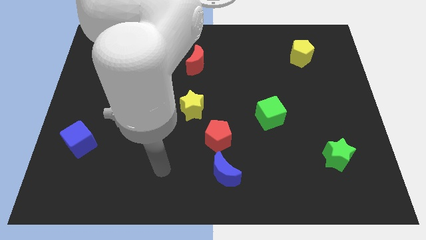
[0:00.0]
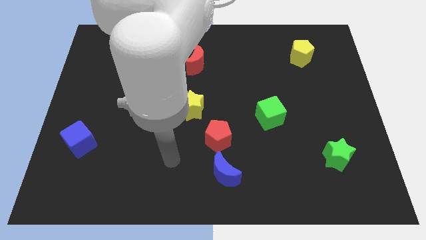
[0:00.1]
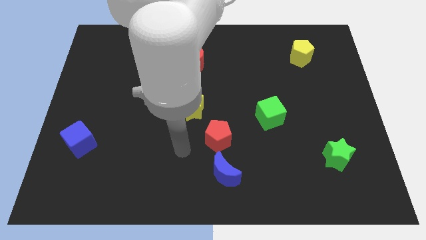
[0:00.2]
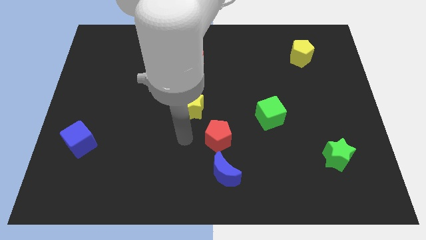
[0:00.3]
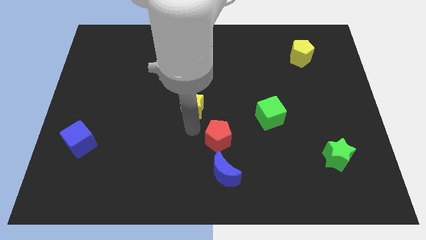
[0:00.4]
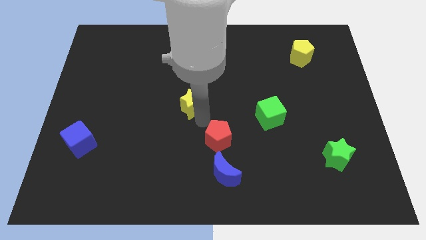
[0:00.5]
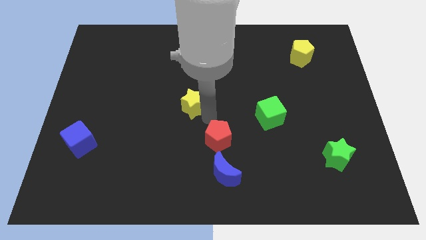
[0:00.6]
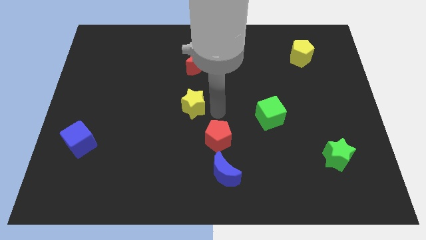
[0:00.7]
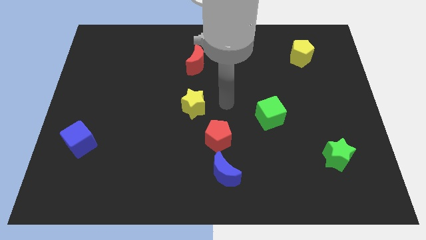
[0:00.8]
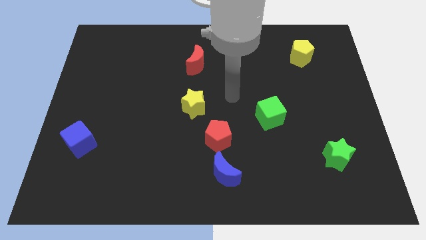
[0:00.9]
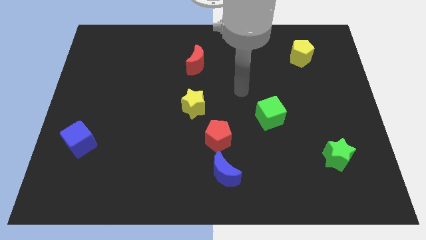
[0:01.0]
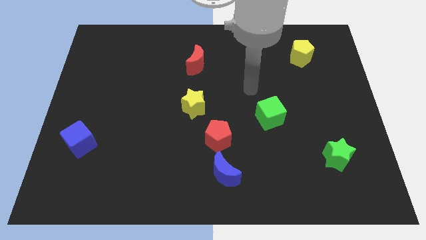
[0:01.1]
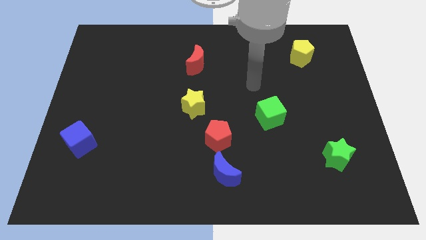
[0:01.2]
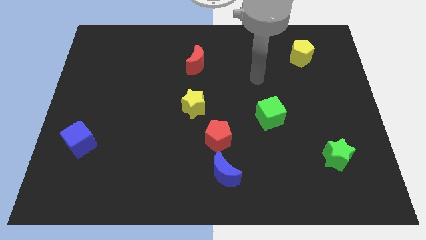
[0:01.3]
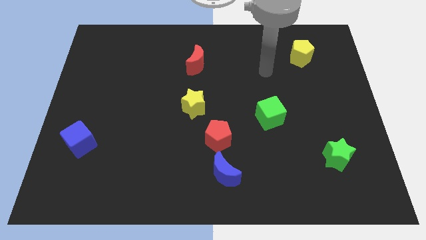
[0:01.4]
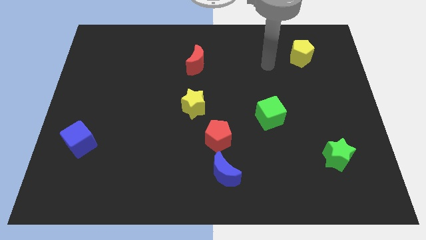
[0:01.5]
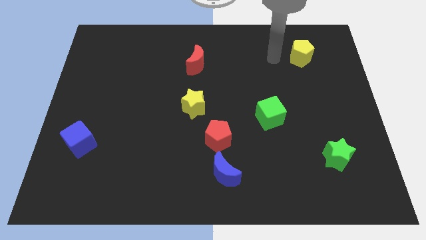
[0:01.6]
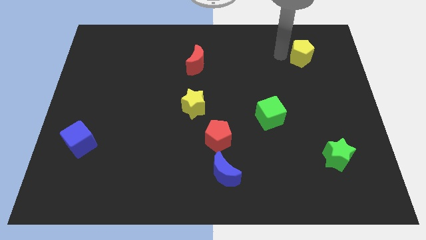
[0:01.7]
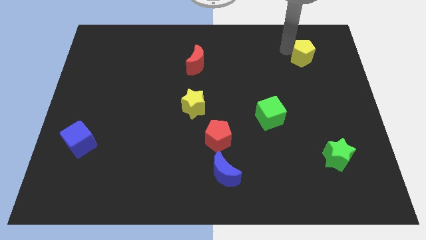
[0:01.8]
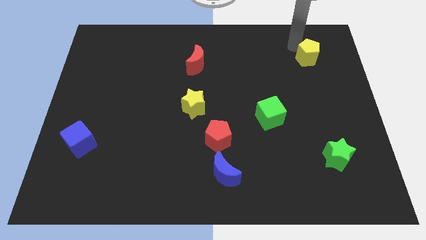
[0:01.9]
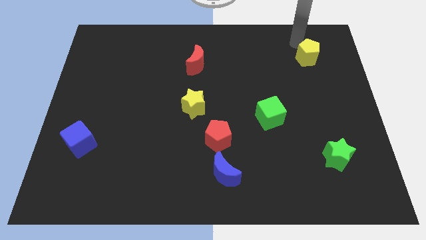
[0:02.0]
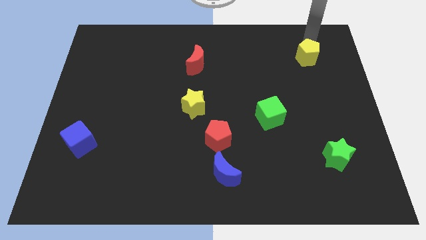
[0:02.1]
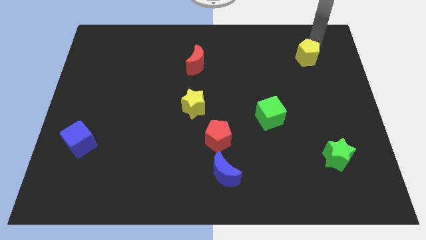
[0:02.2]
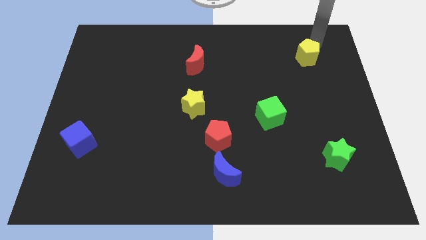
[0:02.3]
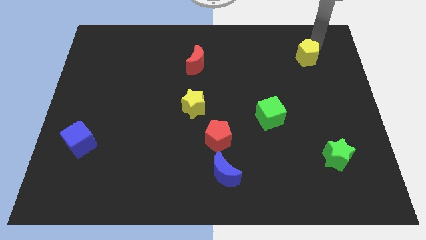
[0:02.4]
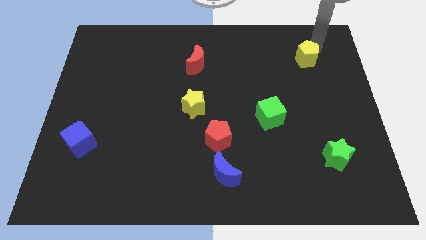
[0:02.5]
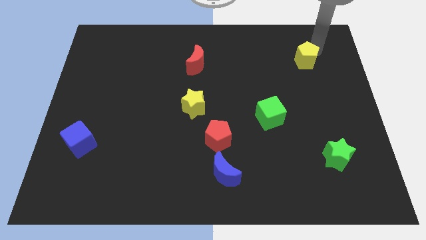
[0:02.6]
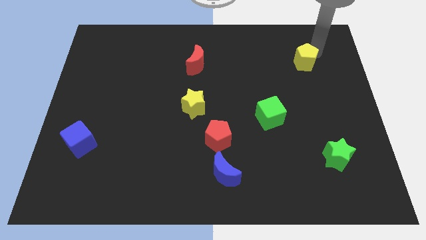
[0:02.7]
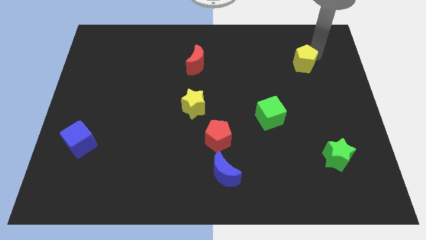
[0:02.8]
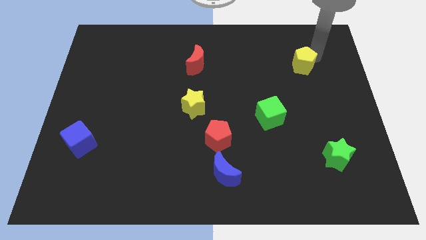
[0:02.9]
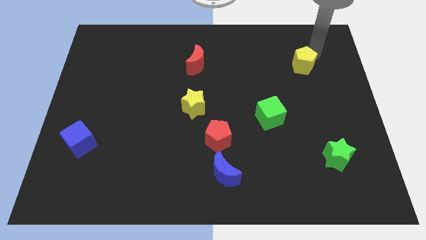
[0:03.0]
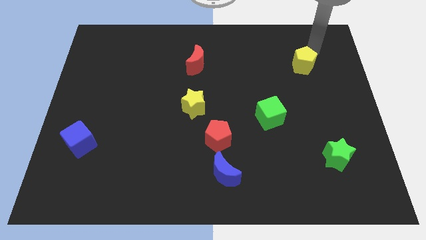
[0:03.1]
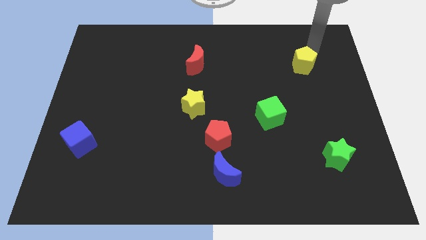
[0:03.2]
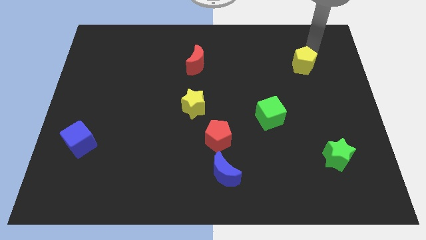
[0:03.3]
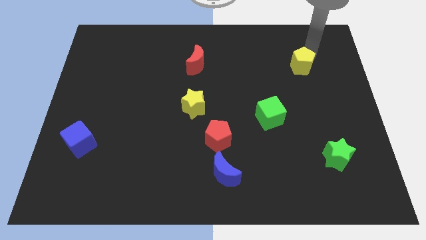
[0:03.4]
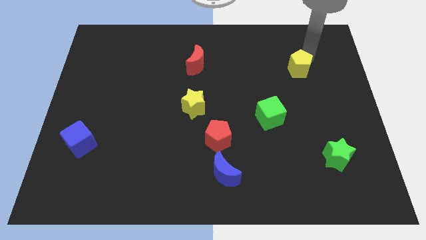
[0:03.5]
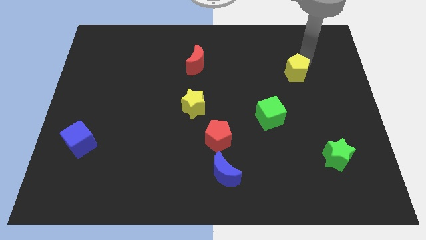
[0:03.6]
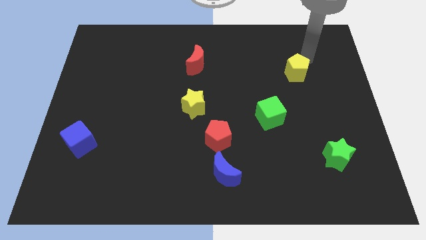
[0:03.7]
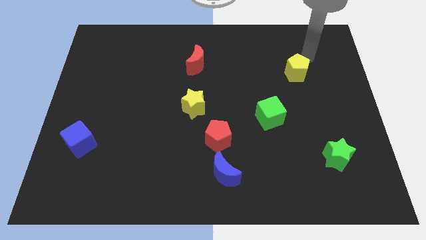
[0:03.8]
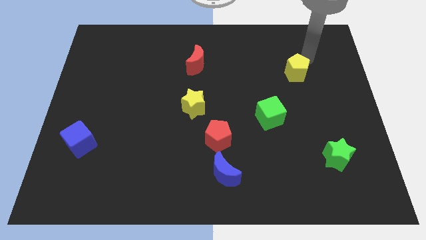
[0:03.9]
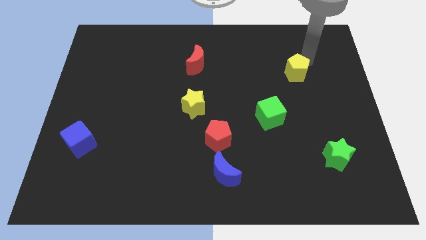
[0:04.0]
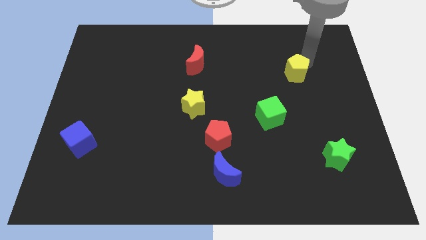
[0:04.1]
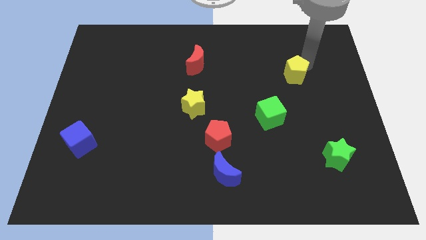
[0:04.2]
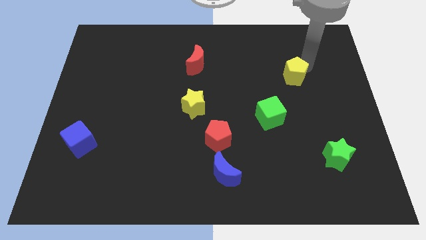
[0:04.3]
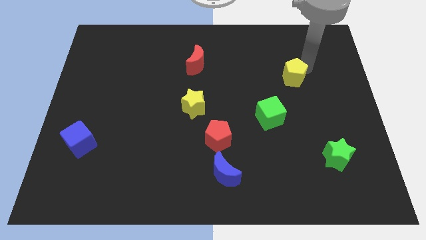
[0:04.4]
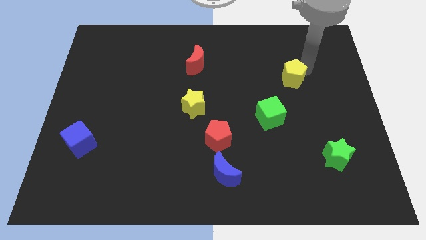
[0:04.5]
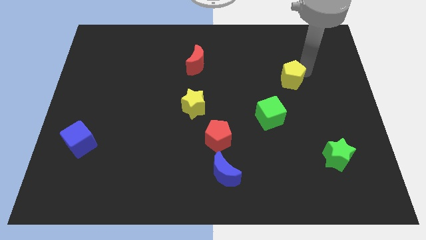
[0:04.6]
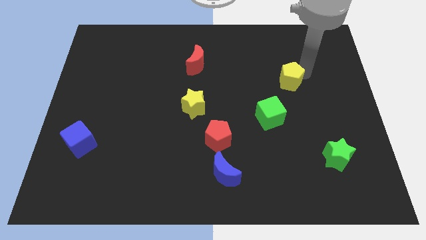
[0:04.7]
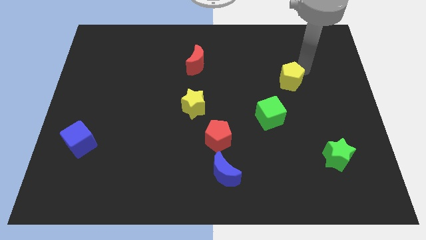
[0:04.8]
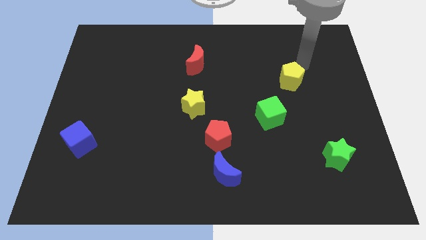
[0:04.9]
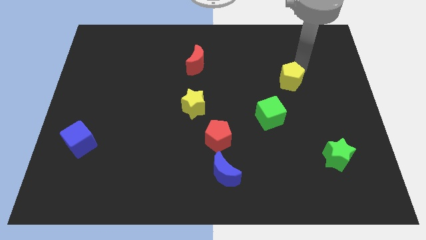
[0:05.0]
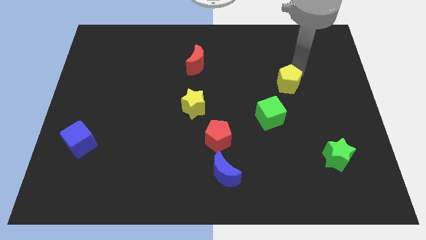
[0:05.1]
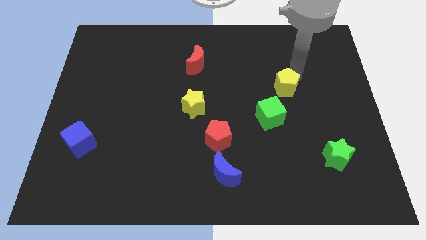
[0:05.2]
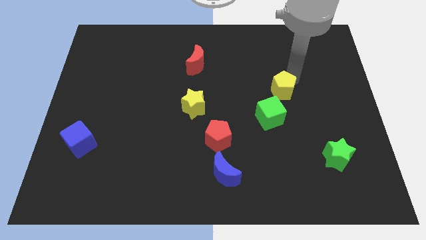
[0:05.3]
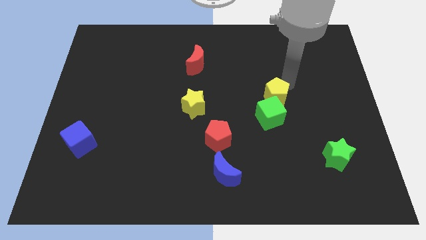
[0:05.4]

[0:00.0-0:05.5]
push the yellow pentagon next to the green cube

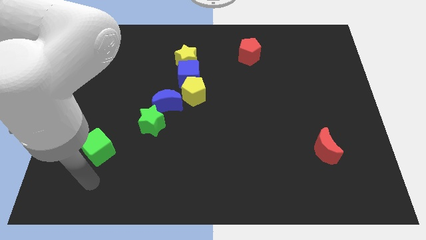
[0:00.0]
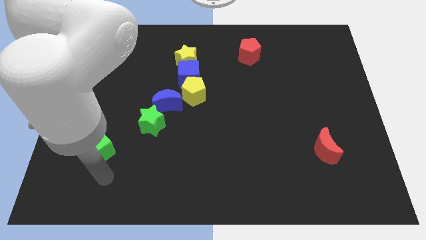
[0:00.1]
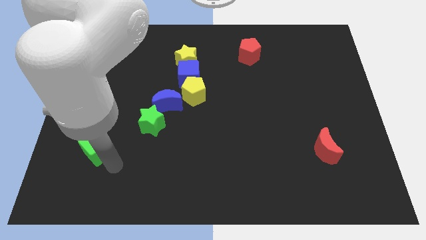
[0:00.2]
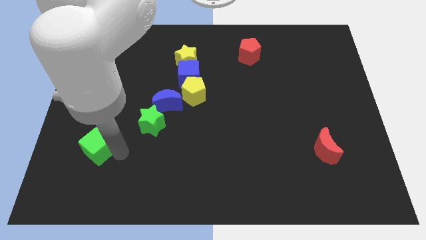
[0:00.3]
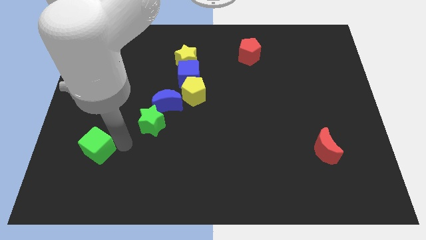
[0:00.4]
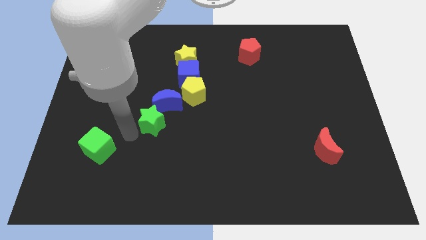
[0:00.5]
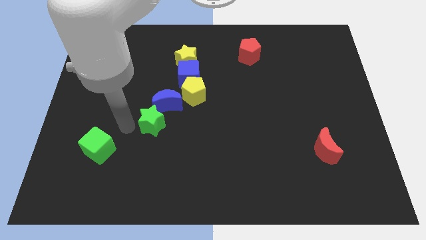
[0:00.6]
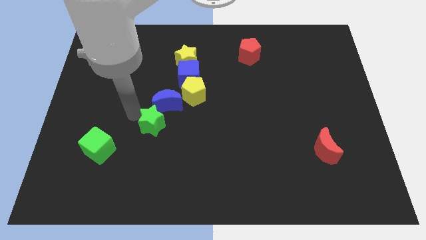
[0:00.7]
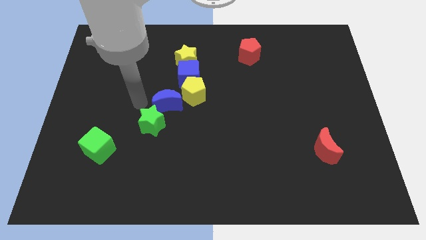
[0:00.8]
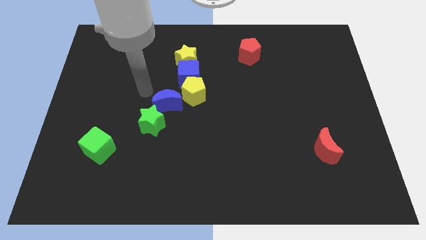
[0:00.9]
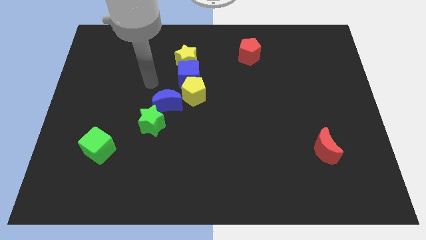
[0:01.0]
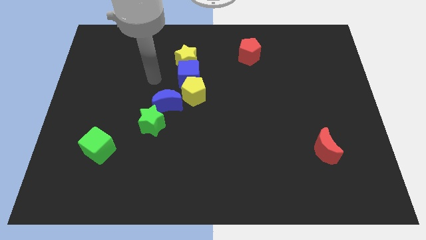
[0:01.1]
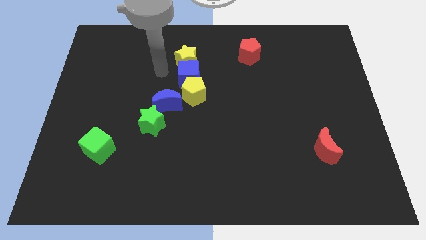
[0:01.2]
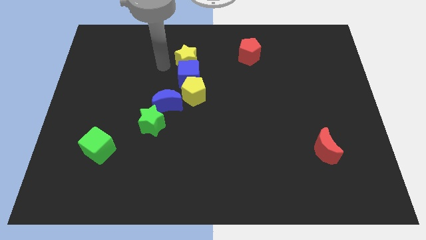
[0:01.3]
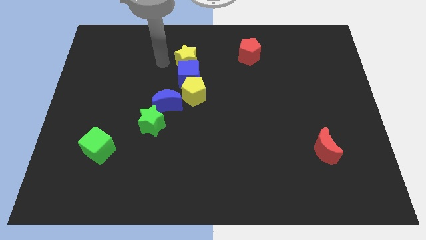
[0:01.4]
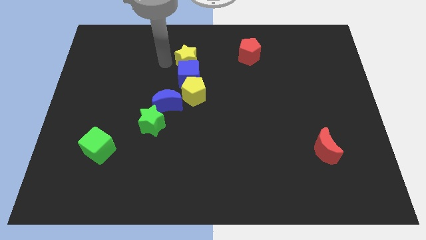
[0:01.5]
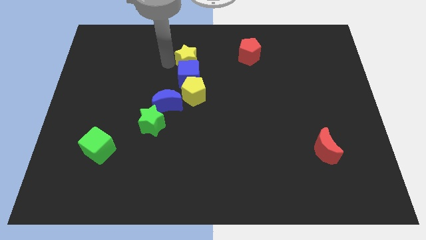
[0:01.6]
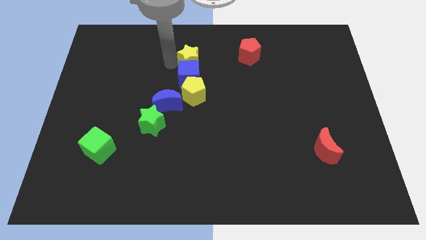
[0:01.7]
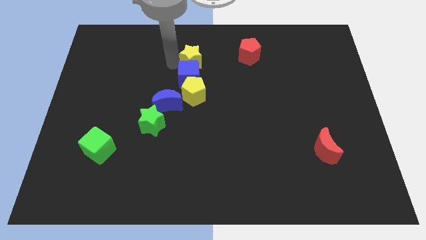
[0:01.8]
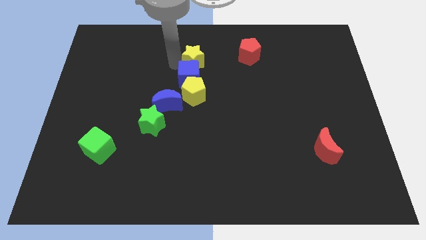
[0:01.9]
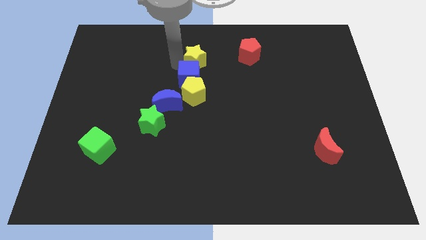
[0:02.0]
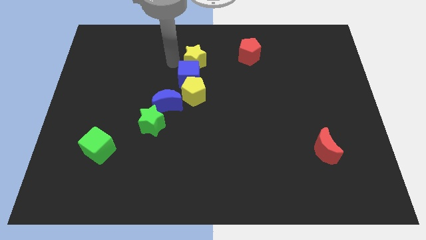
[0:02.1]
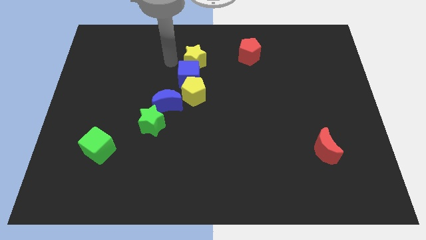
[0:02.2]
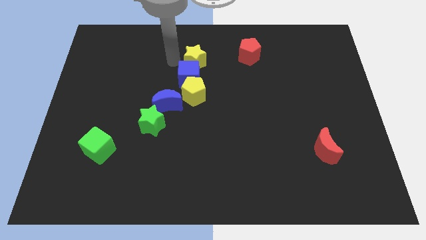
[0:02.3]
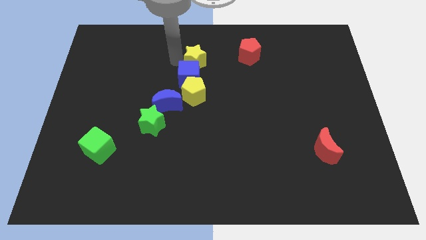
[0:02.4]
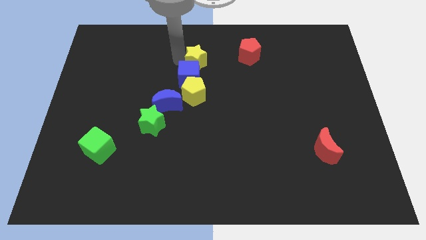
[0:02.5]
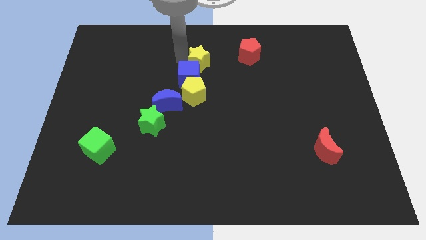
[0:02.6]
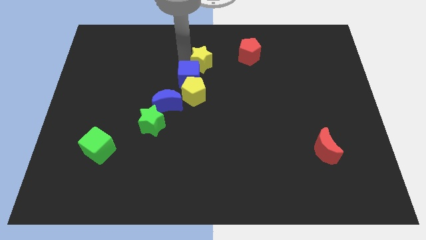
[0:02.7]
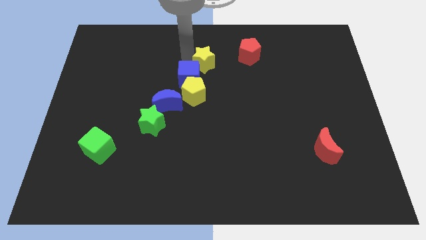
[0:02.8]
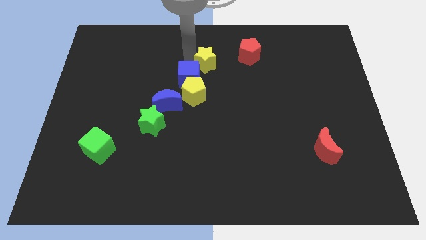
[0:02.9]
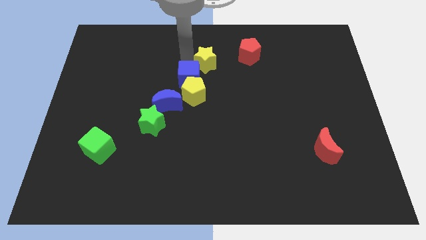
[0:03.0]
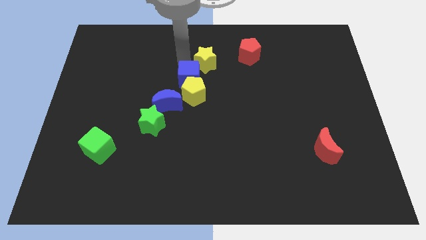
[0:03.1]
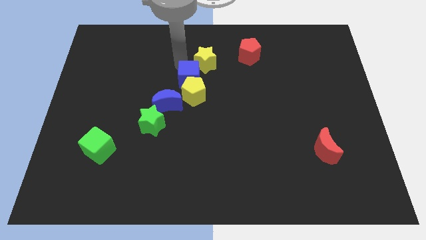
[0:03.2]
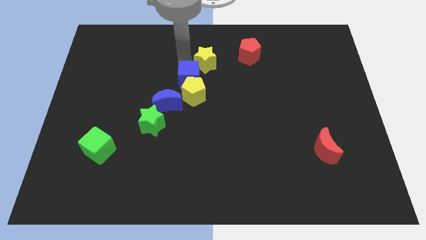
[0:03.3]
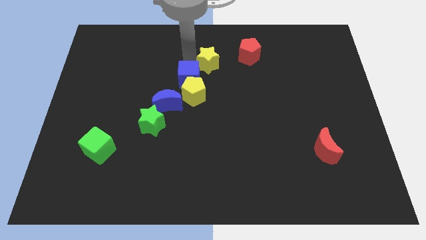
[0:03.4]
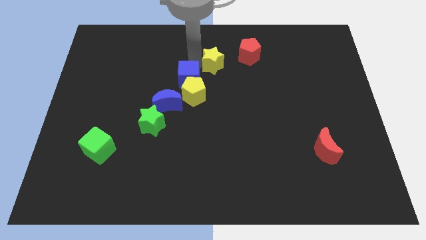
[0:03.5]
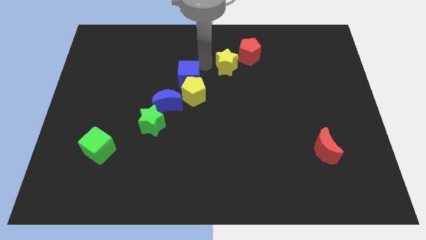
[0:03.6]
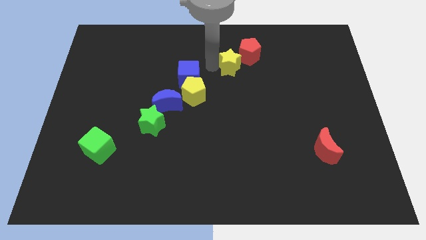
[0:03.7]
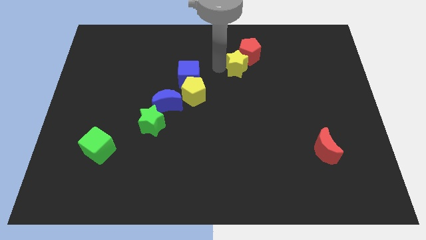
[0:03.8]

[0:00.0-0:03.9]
slide the yellow star close to the red pentagon
